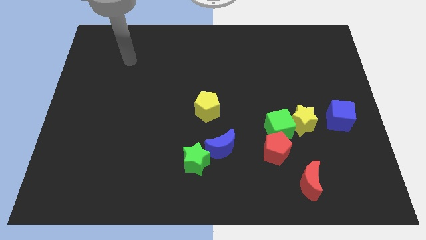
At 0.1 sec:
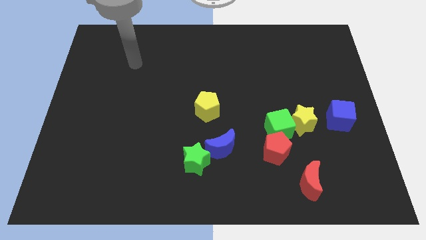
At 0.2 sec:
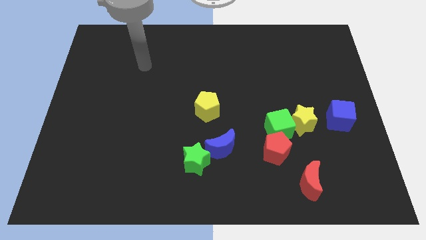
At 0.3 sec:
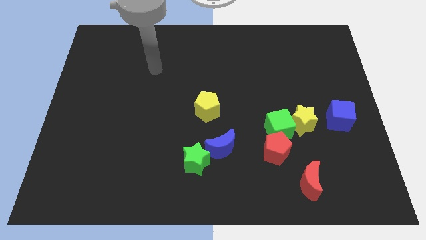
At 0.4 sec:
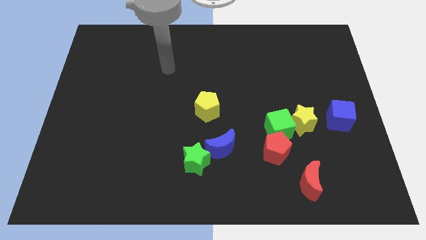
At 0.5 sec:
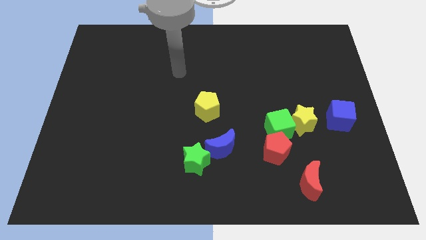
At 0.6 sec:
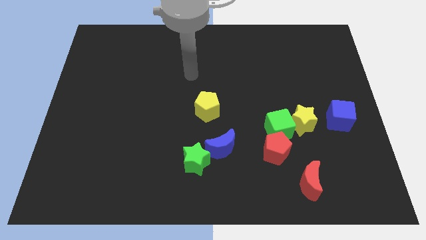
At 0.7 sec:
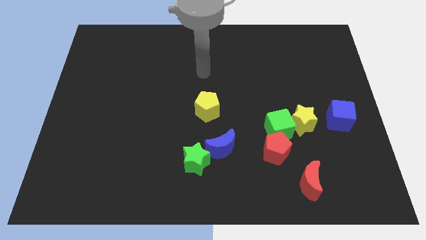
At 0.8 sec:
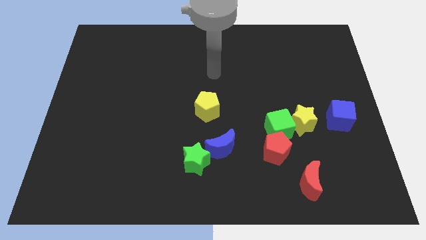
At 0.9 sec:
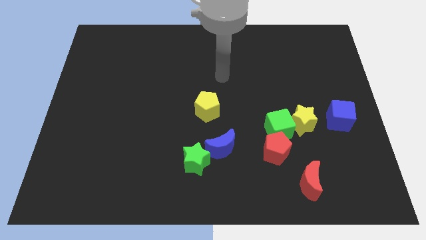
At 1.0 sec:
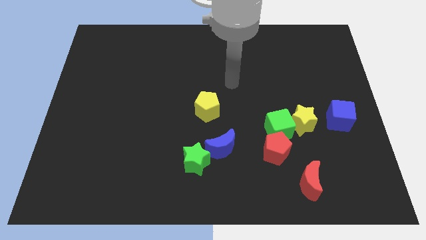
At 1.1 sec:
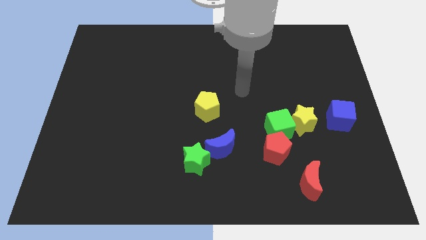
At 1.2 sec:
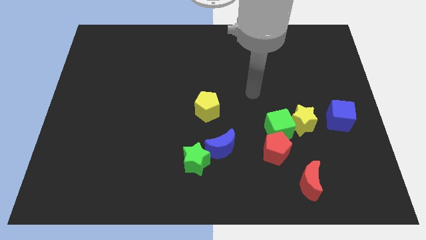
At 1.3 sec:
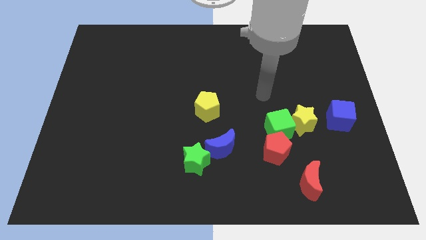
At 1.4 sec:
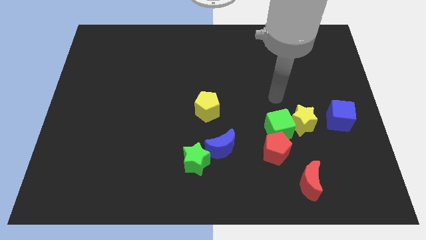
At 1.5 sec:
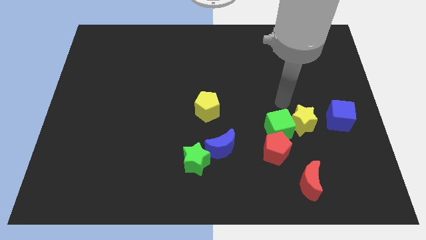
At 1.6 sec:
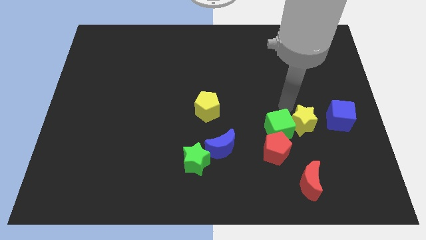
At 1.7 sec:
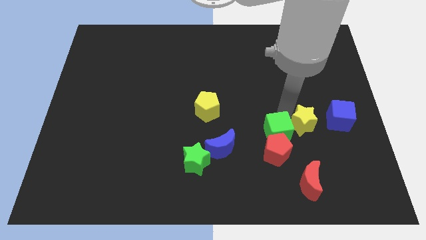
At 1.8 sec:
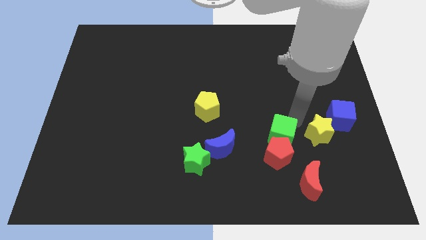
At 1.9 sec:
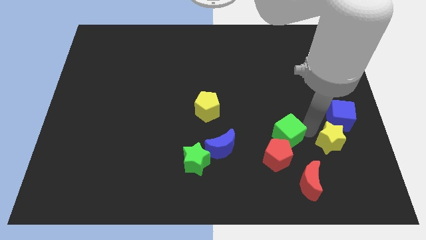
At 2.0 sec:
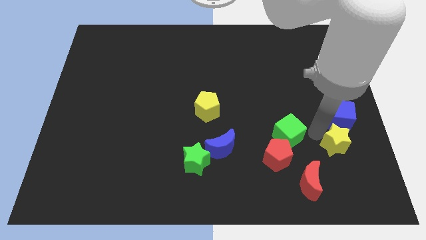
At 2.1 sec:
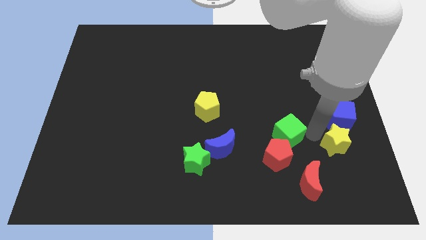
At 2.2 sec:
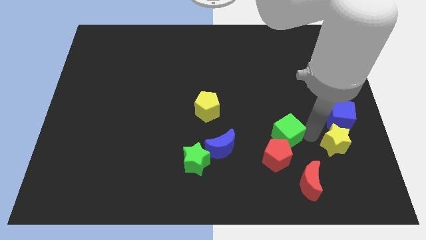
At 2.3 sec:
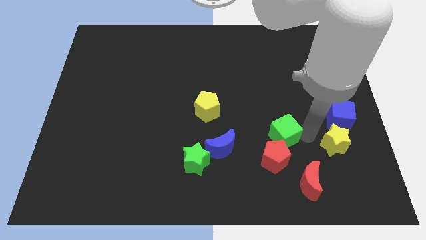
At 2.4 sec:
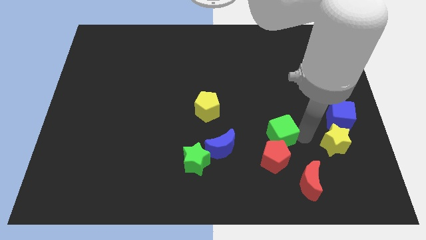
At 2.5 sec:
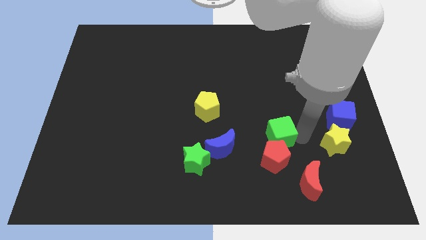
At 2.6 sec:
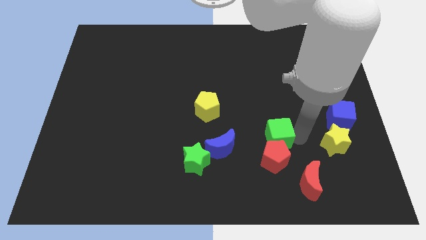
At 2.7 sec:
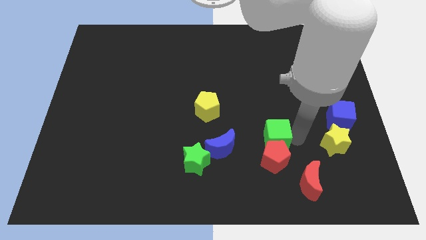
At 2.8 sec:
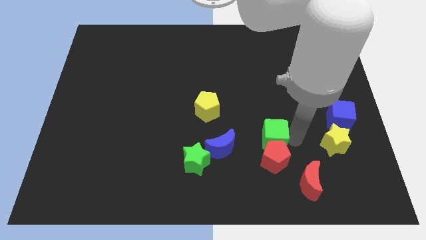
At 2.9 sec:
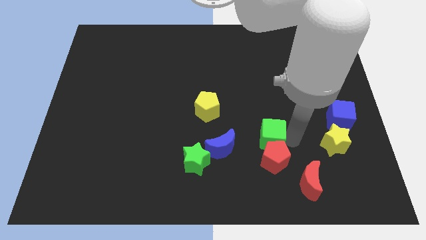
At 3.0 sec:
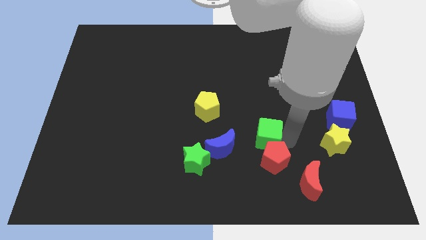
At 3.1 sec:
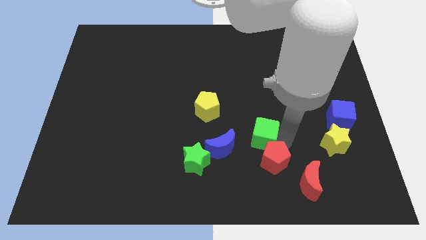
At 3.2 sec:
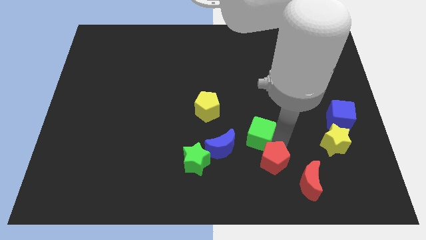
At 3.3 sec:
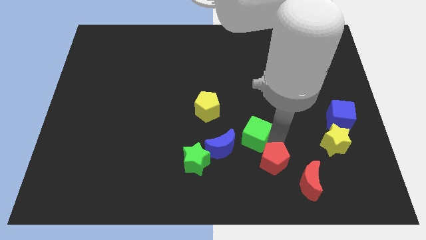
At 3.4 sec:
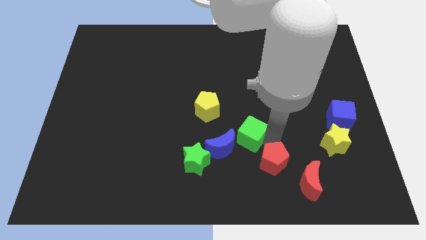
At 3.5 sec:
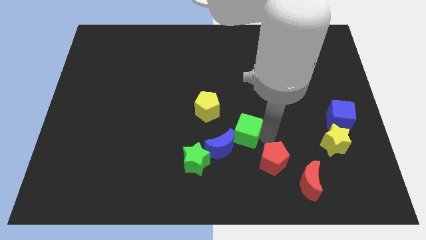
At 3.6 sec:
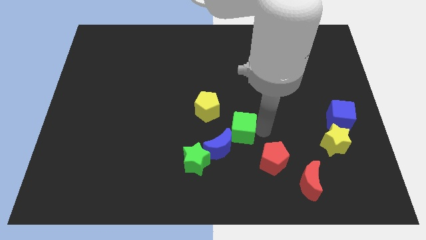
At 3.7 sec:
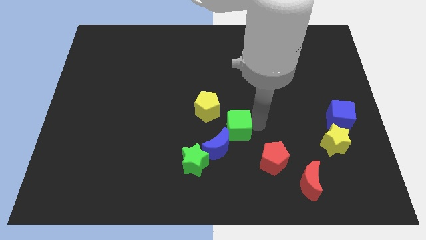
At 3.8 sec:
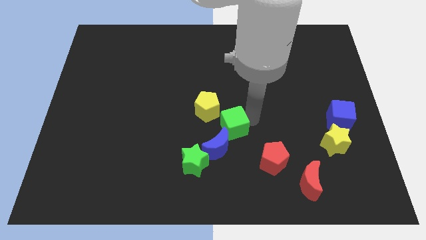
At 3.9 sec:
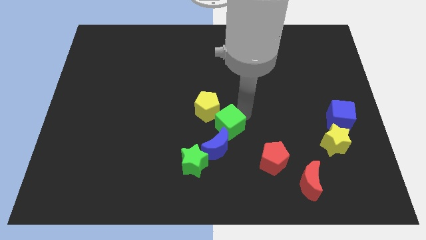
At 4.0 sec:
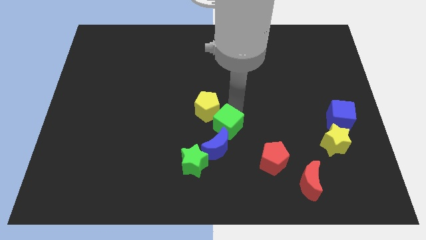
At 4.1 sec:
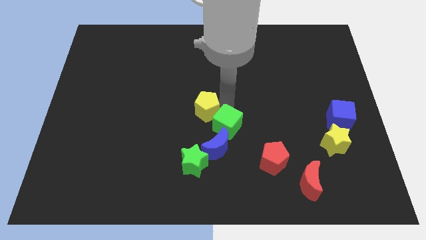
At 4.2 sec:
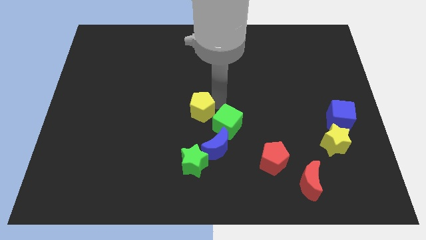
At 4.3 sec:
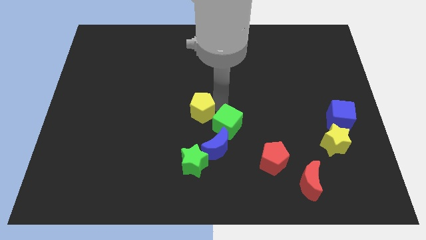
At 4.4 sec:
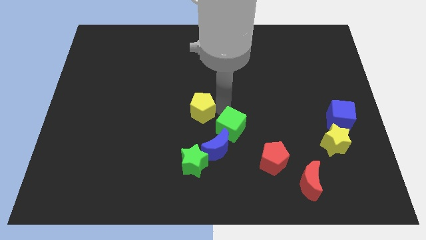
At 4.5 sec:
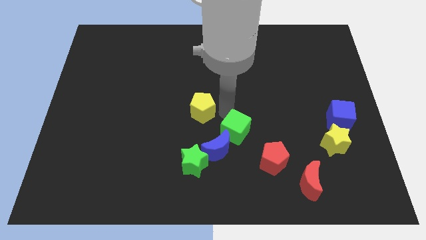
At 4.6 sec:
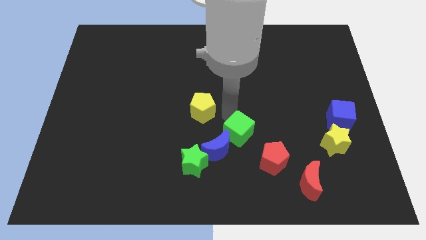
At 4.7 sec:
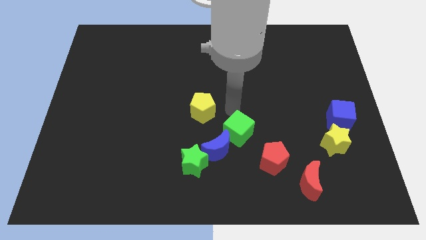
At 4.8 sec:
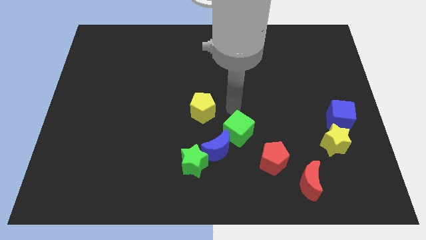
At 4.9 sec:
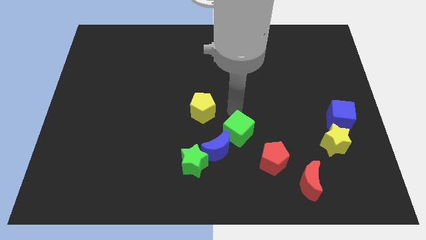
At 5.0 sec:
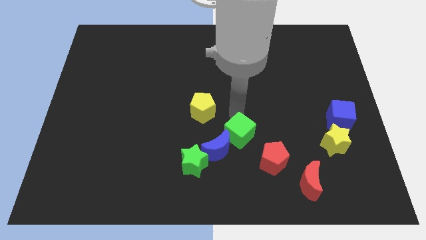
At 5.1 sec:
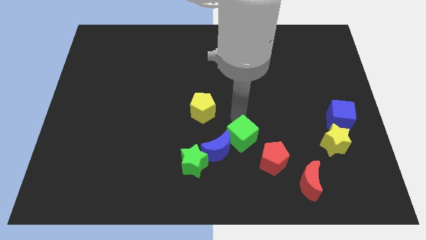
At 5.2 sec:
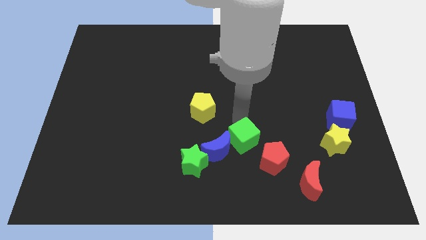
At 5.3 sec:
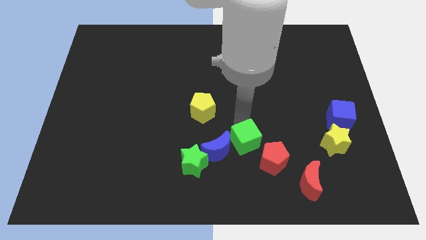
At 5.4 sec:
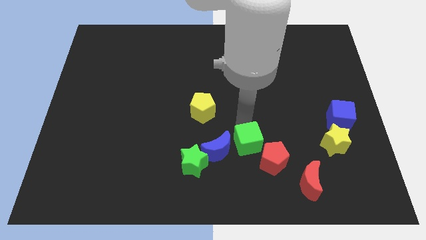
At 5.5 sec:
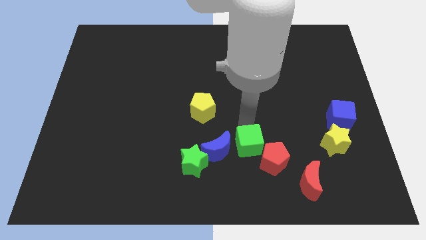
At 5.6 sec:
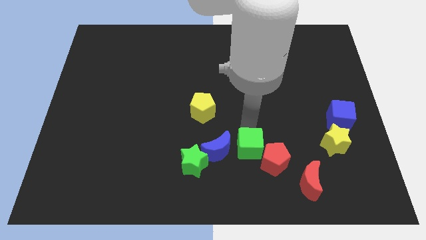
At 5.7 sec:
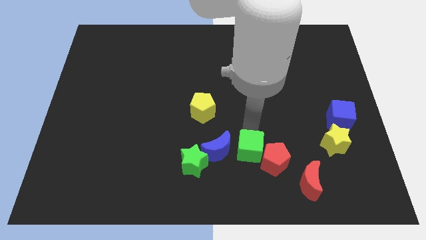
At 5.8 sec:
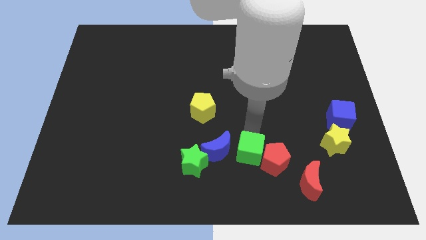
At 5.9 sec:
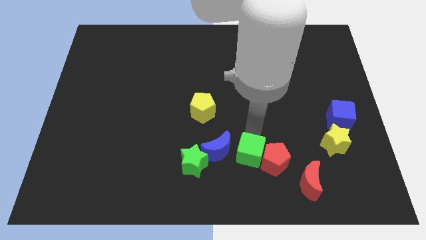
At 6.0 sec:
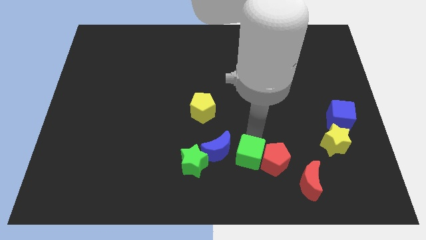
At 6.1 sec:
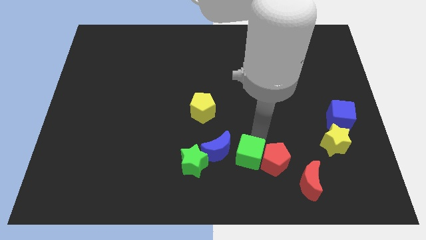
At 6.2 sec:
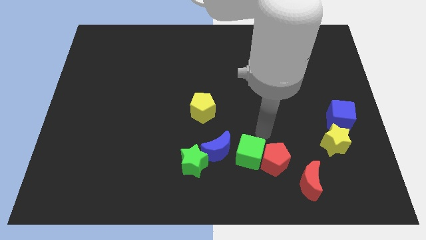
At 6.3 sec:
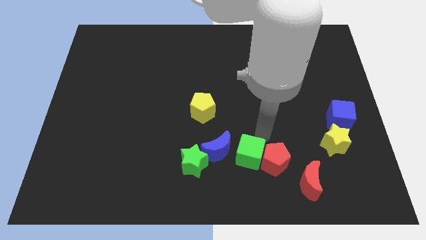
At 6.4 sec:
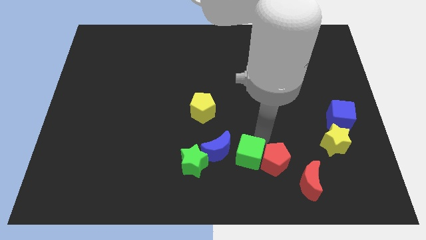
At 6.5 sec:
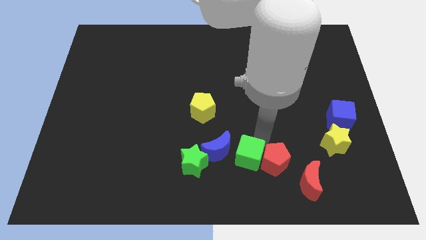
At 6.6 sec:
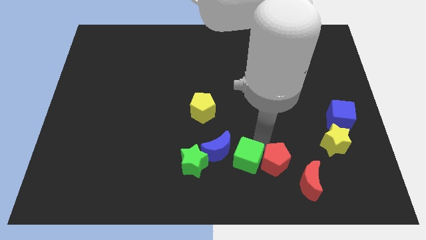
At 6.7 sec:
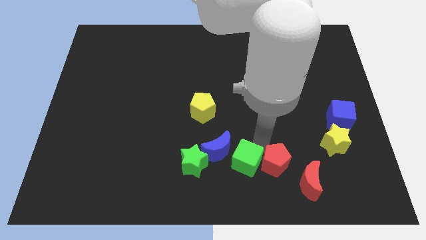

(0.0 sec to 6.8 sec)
slide the green cube to the bottom
